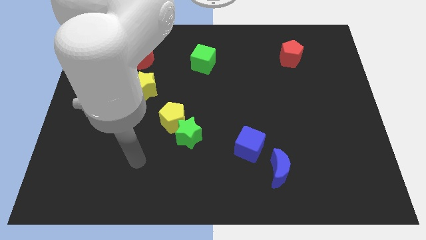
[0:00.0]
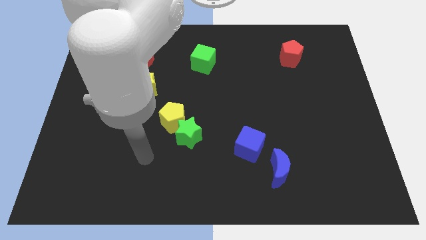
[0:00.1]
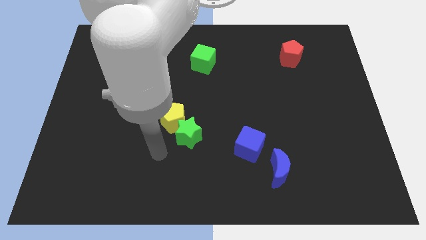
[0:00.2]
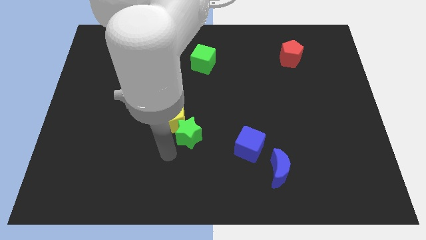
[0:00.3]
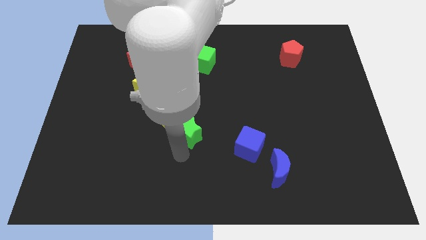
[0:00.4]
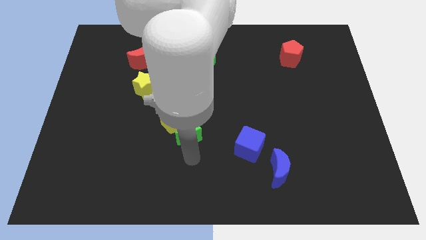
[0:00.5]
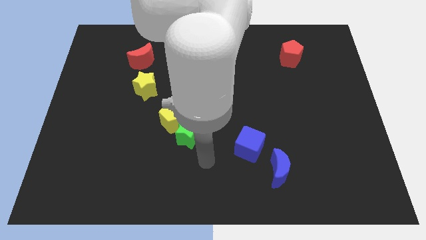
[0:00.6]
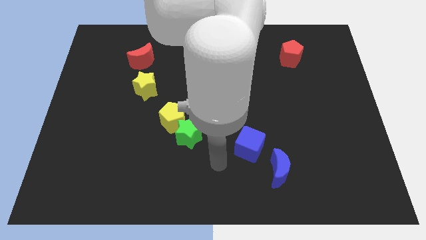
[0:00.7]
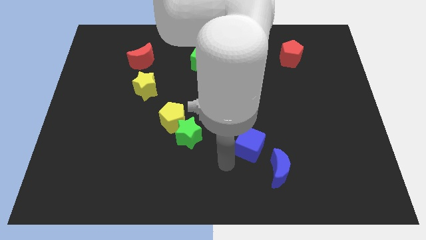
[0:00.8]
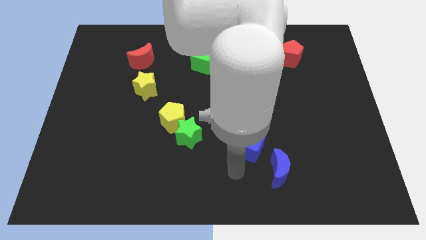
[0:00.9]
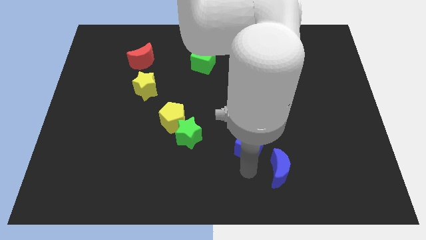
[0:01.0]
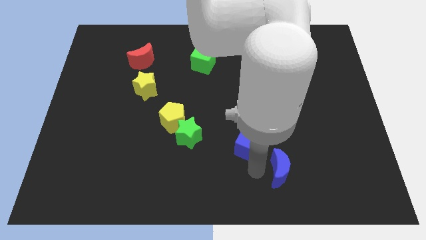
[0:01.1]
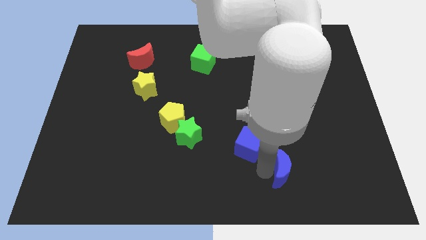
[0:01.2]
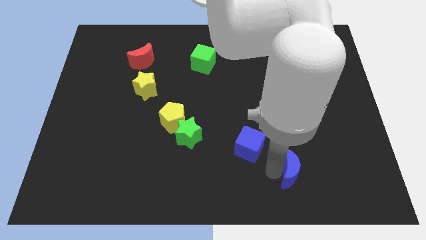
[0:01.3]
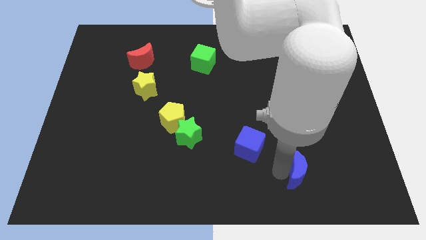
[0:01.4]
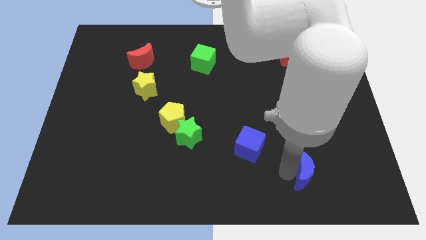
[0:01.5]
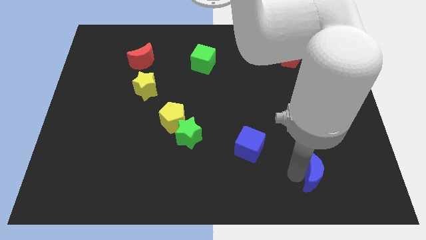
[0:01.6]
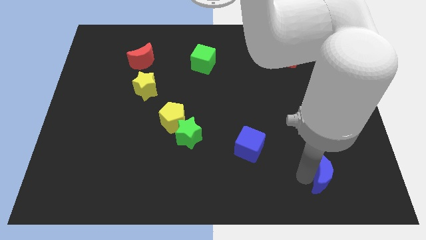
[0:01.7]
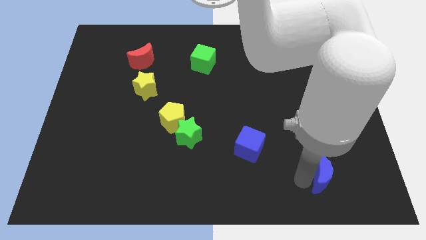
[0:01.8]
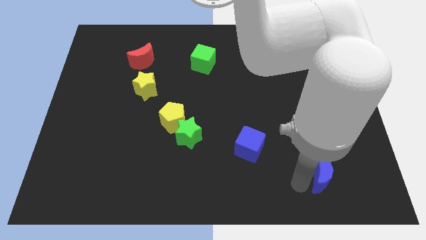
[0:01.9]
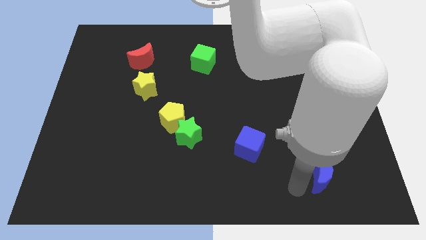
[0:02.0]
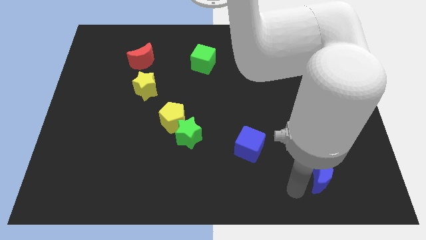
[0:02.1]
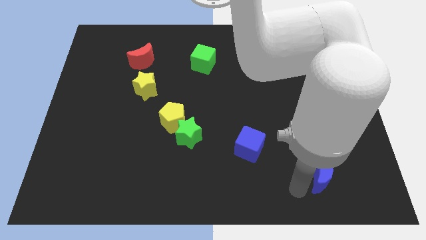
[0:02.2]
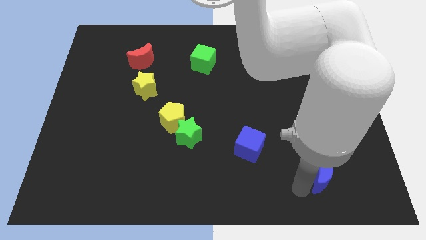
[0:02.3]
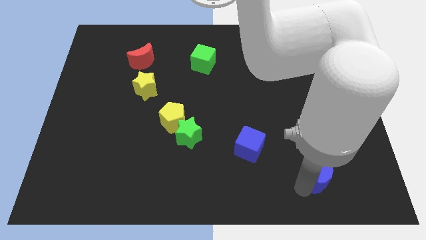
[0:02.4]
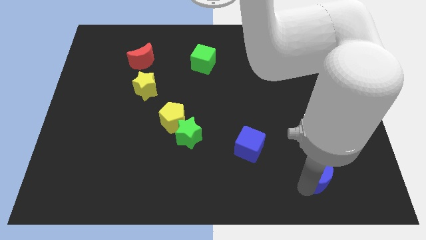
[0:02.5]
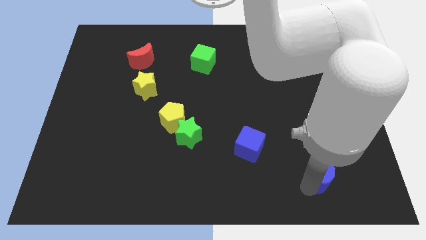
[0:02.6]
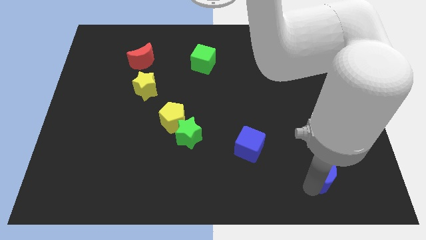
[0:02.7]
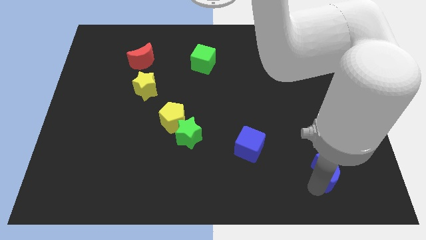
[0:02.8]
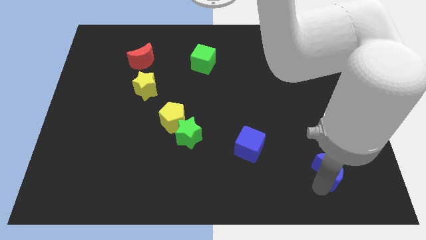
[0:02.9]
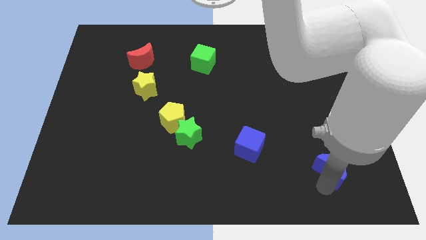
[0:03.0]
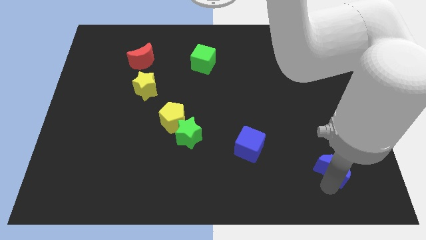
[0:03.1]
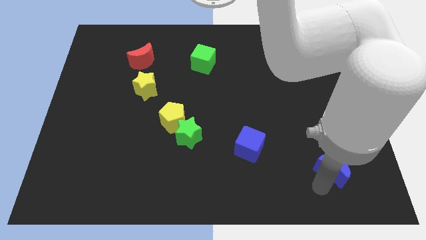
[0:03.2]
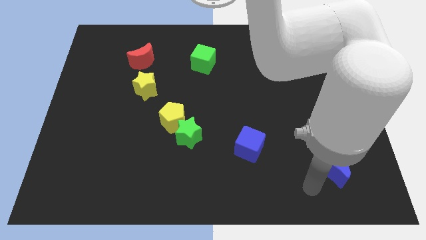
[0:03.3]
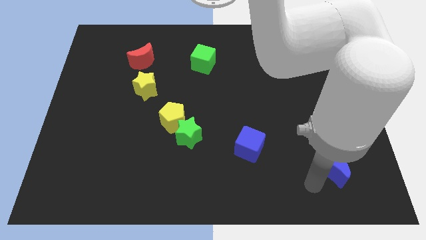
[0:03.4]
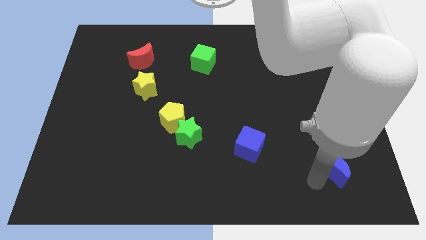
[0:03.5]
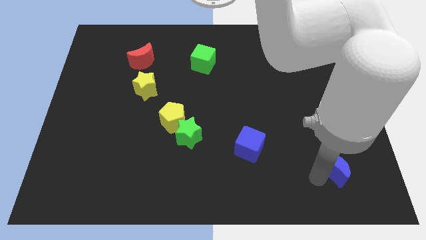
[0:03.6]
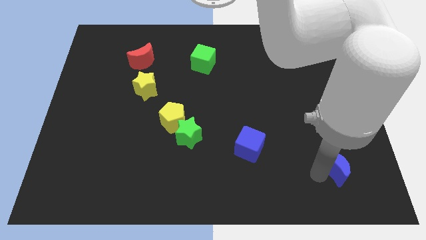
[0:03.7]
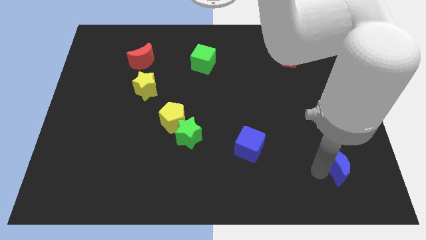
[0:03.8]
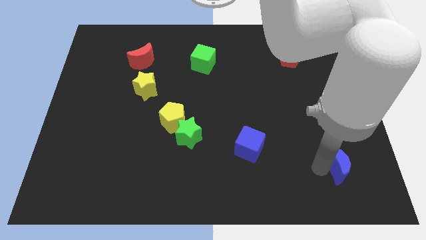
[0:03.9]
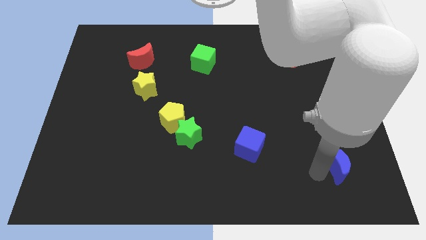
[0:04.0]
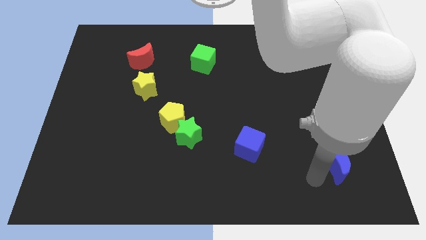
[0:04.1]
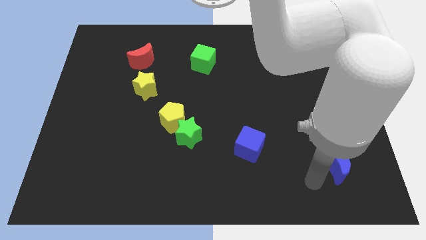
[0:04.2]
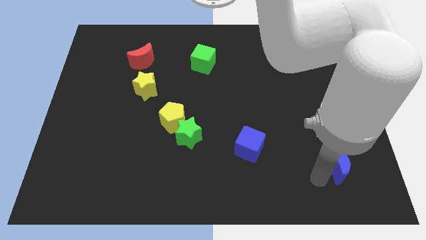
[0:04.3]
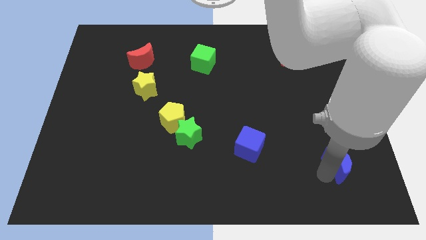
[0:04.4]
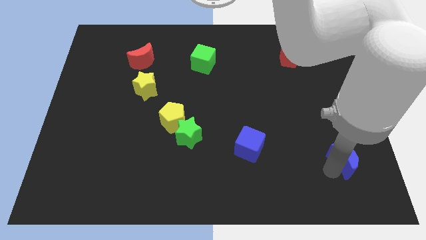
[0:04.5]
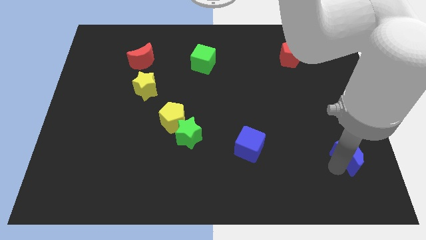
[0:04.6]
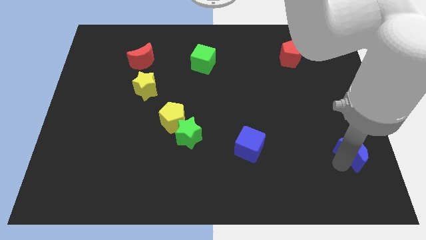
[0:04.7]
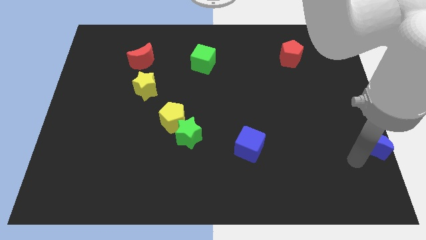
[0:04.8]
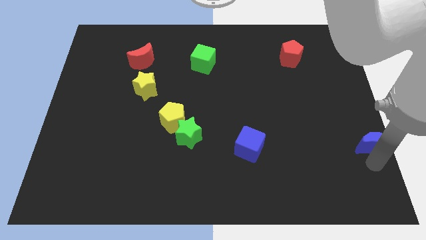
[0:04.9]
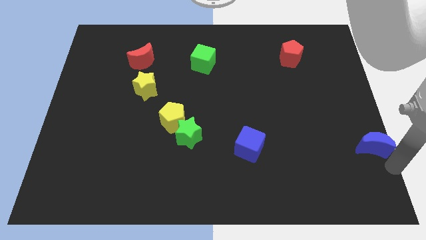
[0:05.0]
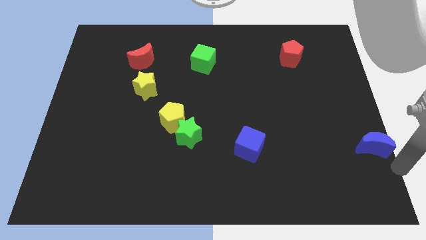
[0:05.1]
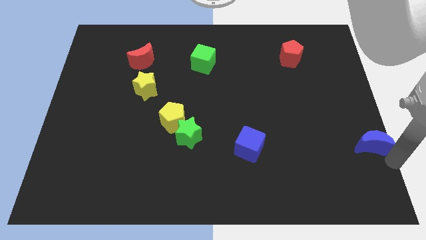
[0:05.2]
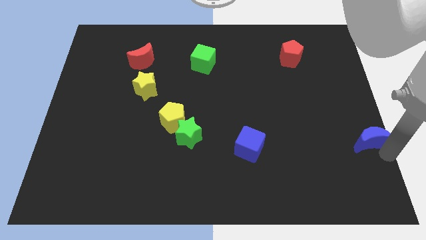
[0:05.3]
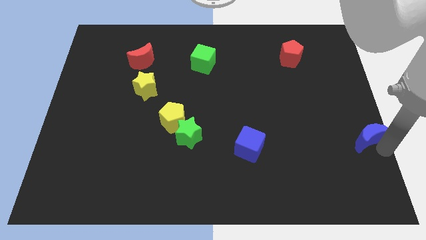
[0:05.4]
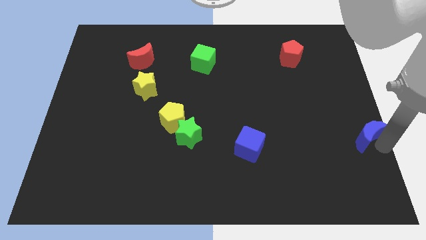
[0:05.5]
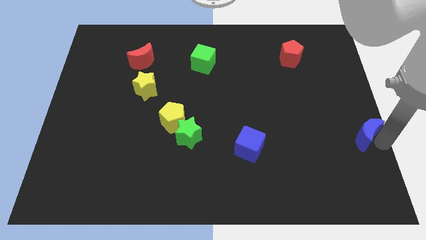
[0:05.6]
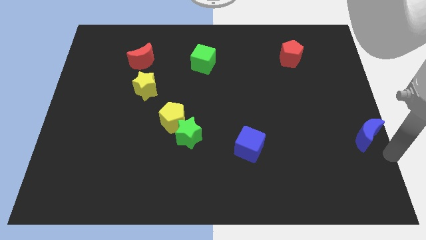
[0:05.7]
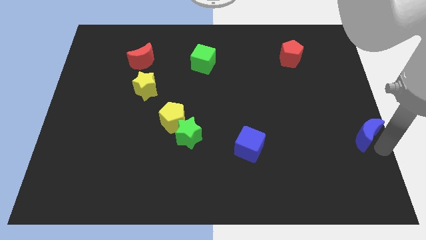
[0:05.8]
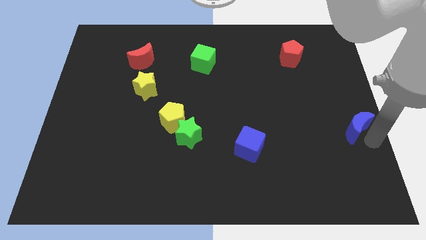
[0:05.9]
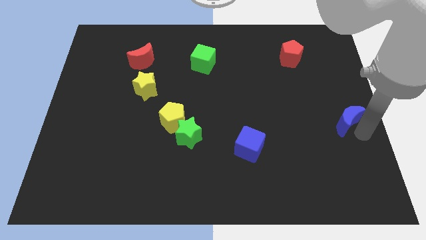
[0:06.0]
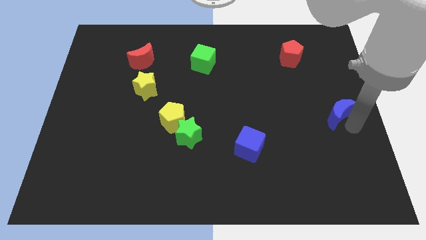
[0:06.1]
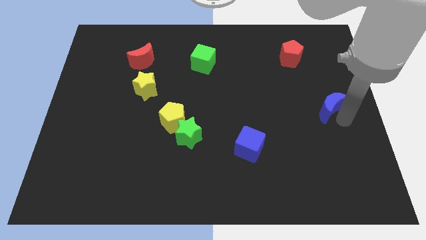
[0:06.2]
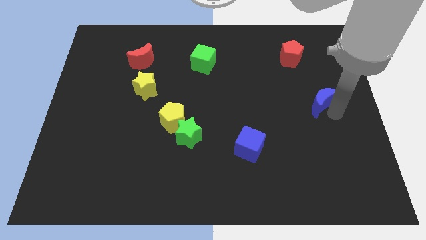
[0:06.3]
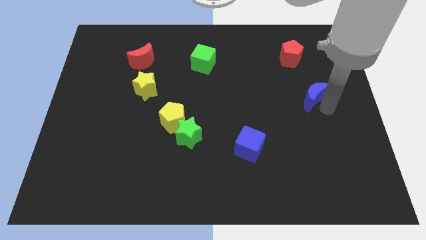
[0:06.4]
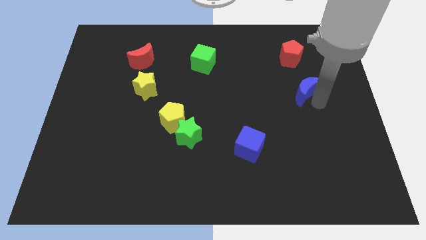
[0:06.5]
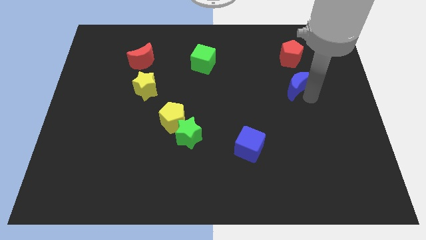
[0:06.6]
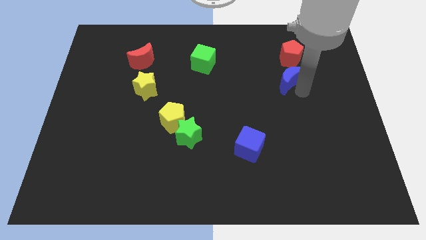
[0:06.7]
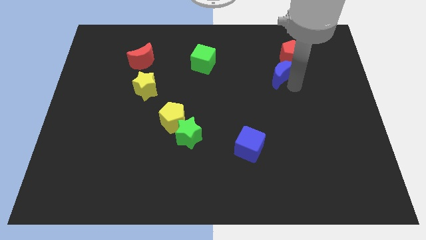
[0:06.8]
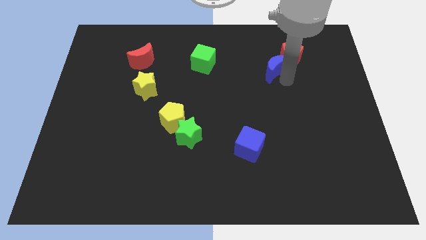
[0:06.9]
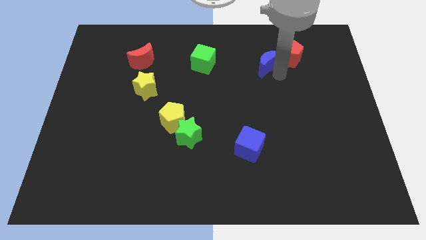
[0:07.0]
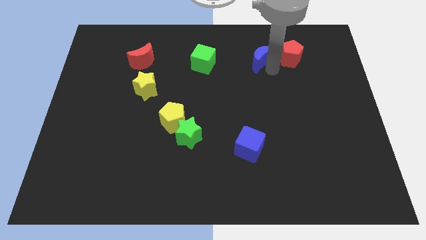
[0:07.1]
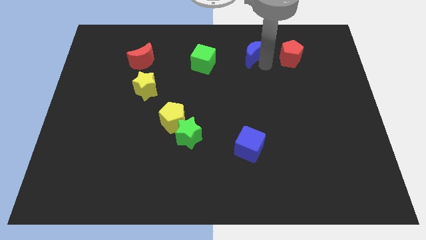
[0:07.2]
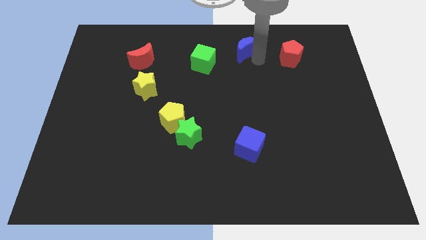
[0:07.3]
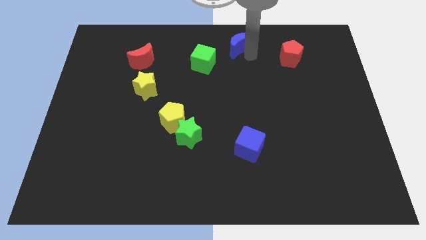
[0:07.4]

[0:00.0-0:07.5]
put the blue moon to the towards your base
